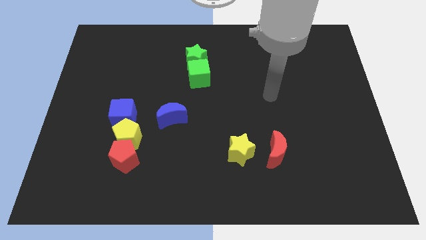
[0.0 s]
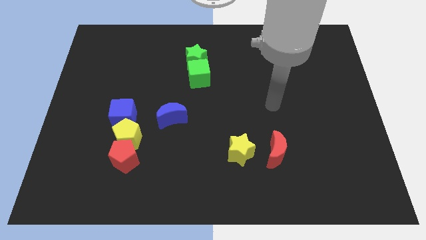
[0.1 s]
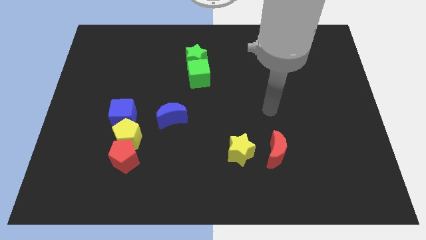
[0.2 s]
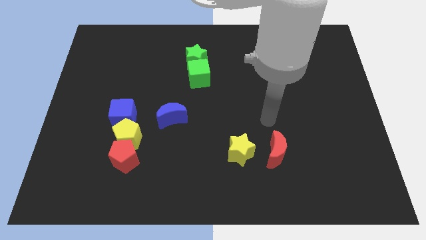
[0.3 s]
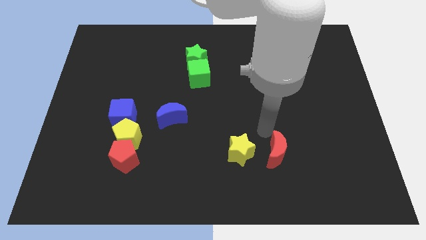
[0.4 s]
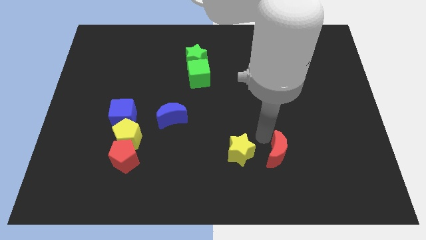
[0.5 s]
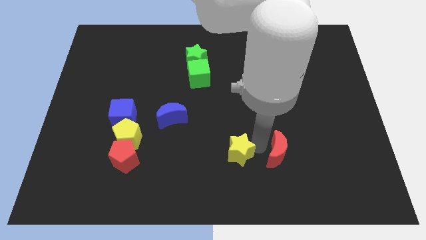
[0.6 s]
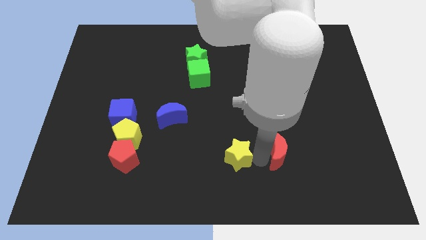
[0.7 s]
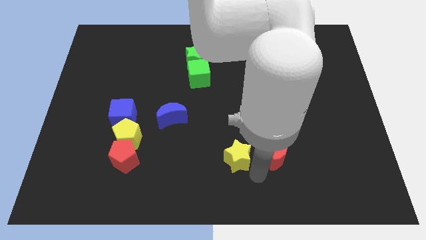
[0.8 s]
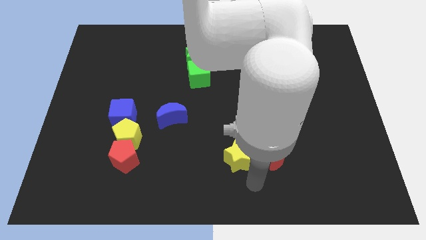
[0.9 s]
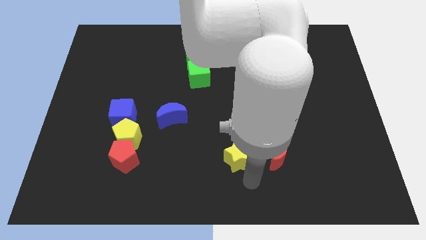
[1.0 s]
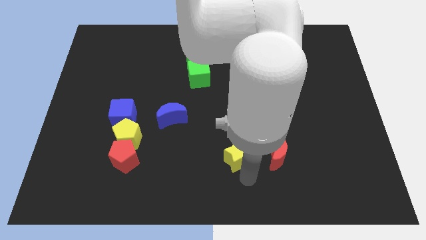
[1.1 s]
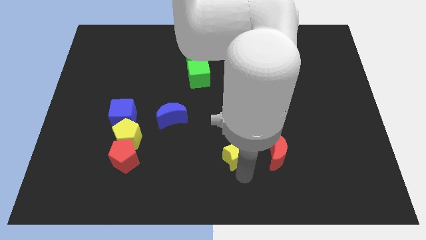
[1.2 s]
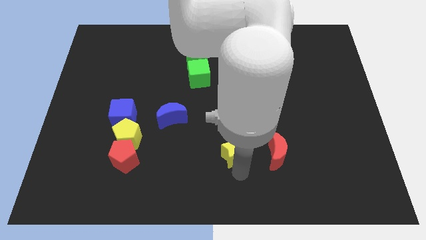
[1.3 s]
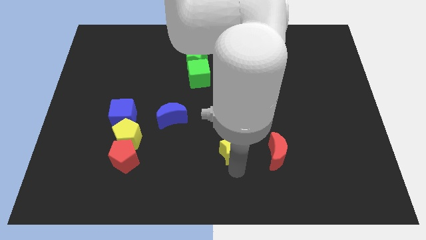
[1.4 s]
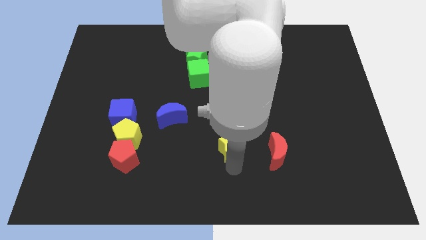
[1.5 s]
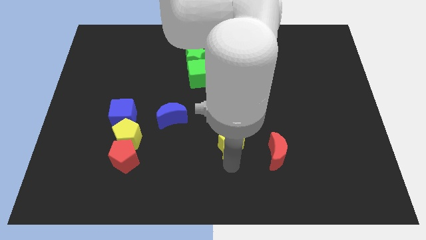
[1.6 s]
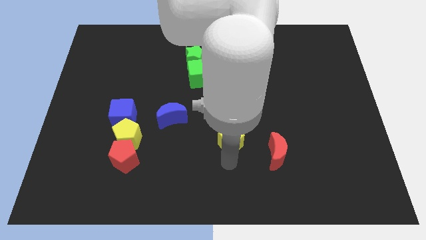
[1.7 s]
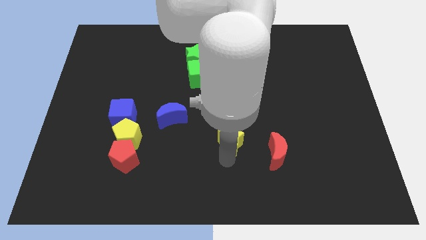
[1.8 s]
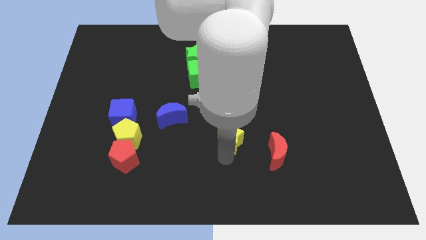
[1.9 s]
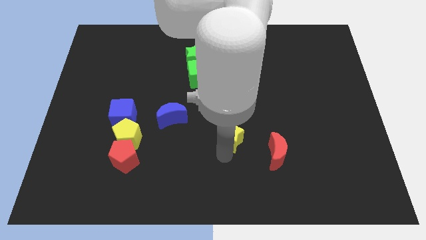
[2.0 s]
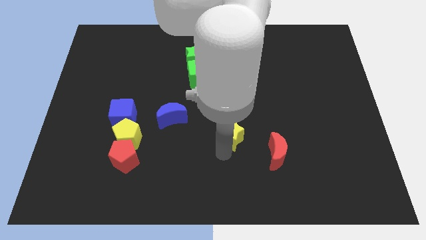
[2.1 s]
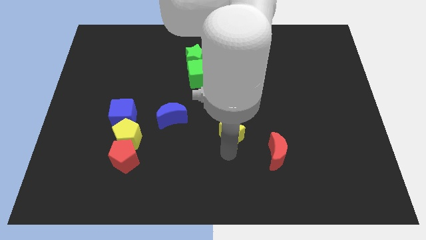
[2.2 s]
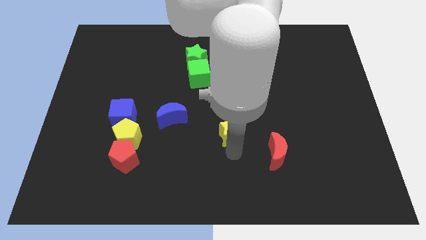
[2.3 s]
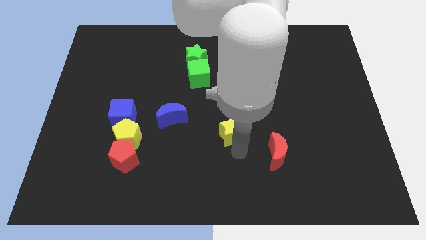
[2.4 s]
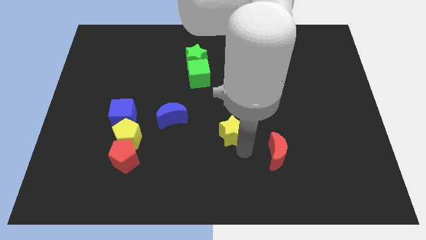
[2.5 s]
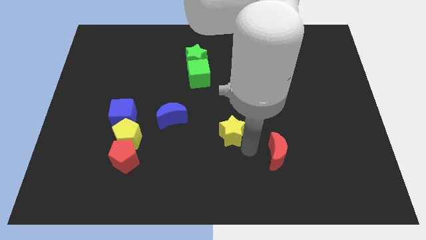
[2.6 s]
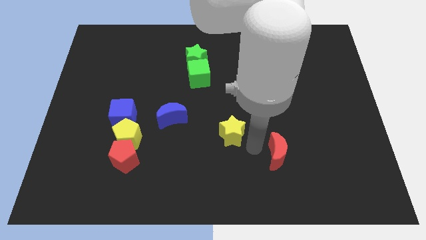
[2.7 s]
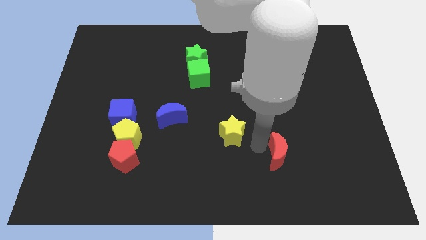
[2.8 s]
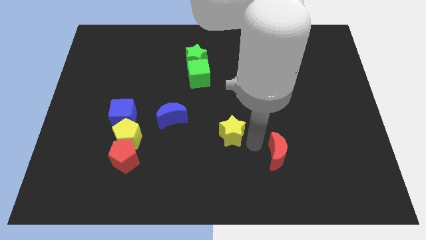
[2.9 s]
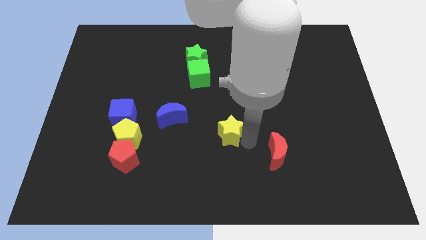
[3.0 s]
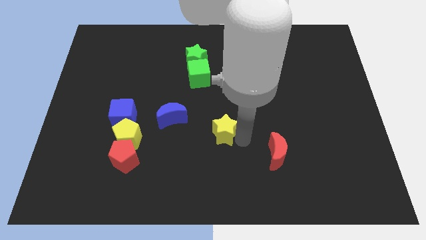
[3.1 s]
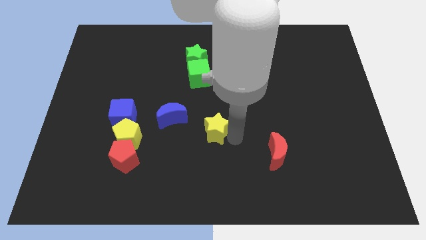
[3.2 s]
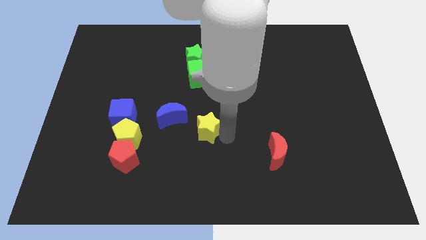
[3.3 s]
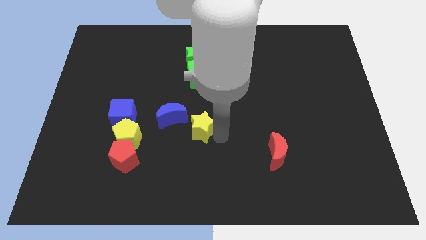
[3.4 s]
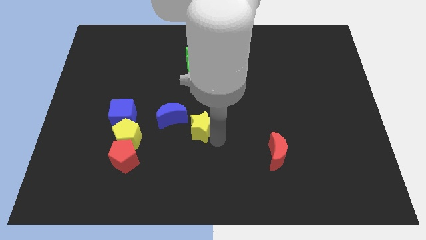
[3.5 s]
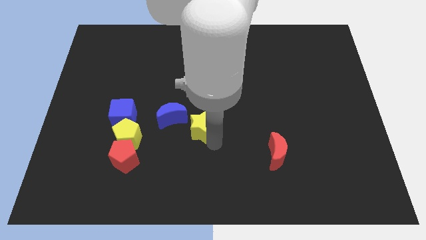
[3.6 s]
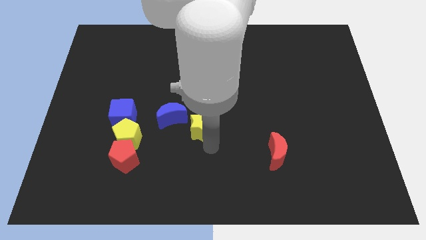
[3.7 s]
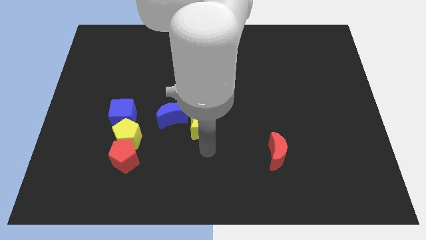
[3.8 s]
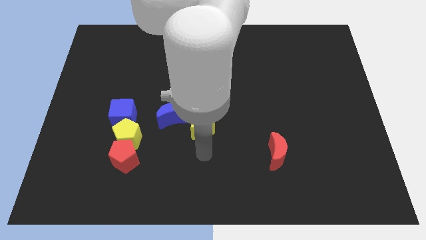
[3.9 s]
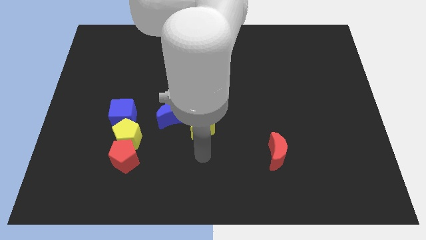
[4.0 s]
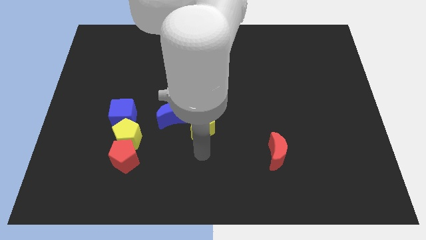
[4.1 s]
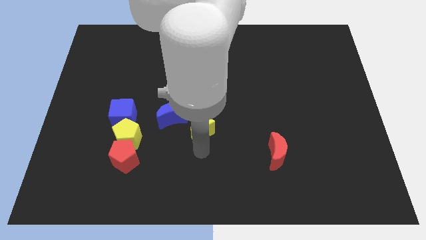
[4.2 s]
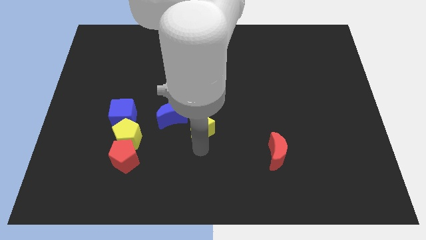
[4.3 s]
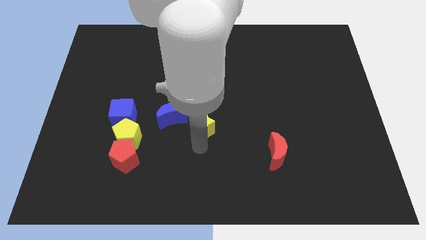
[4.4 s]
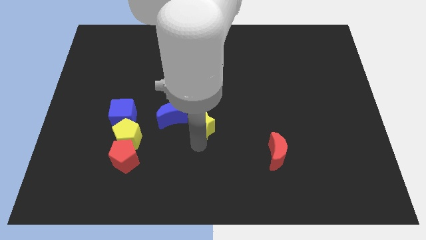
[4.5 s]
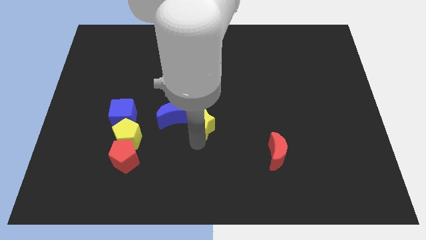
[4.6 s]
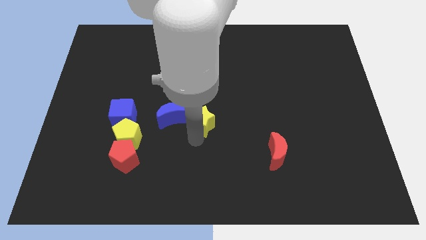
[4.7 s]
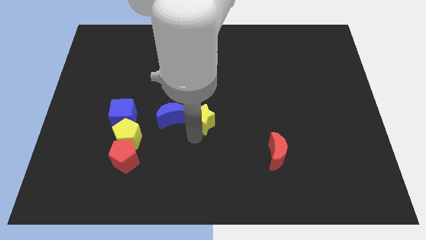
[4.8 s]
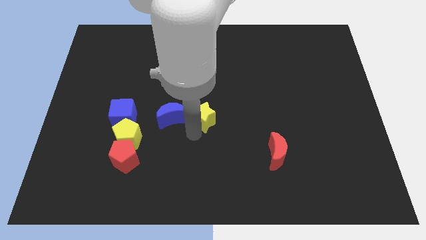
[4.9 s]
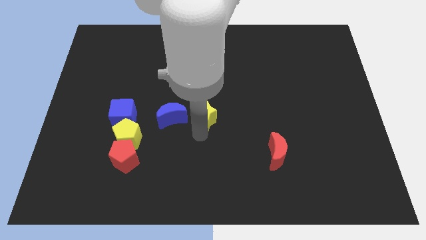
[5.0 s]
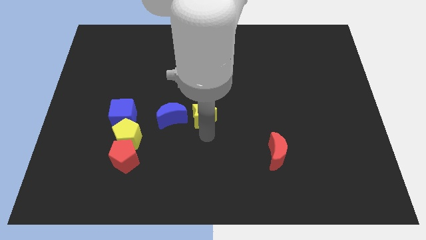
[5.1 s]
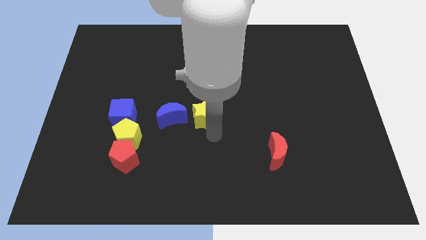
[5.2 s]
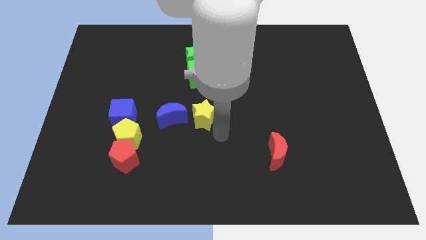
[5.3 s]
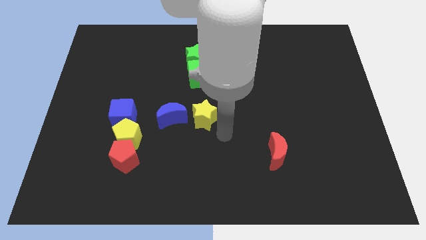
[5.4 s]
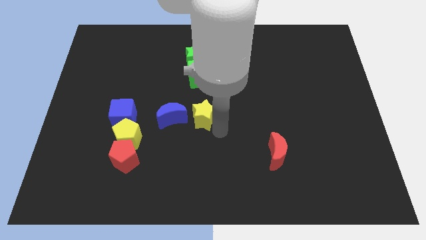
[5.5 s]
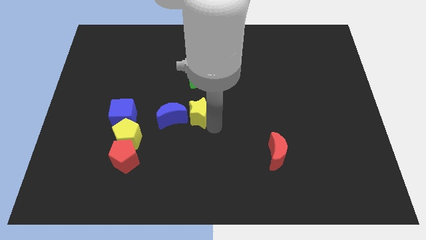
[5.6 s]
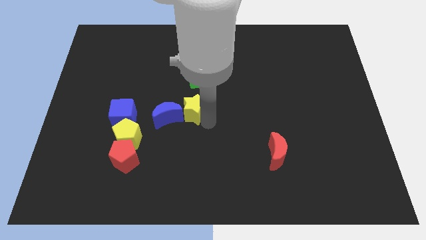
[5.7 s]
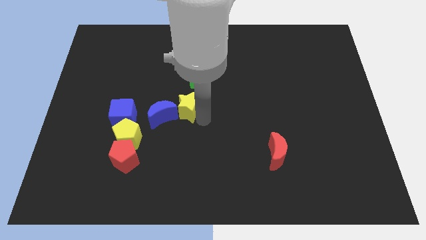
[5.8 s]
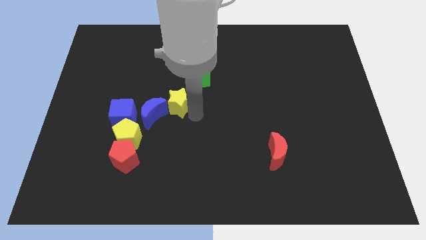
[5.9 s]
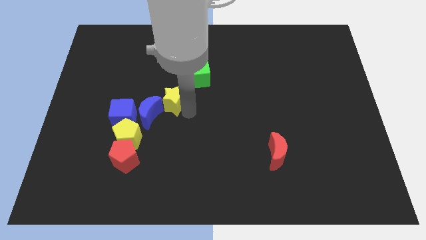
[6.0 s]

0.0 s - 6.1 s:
slide the yellow star upwards and then to the left

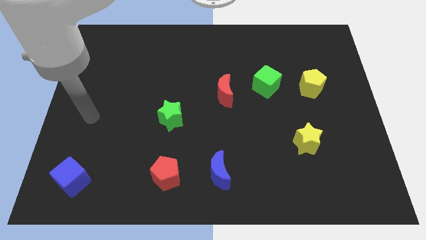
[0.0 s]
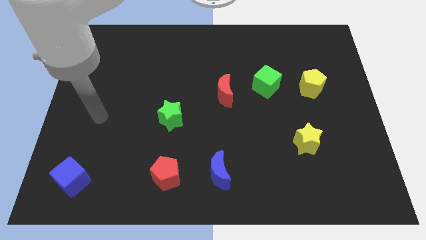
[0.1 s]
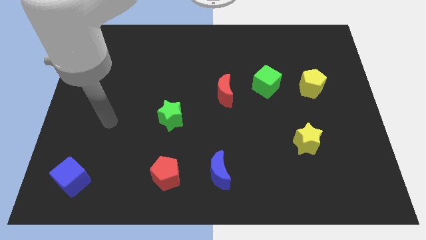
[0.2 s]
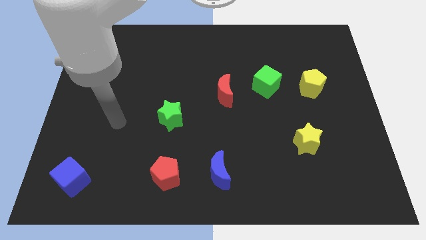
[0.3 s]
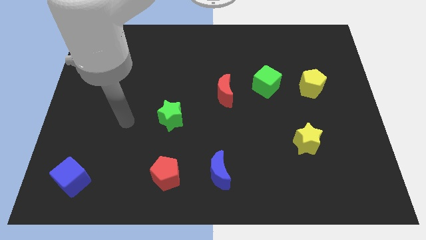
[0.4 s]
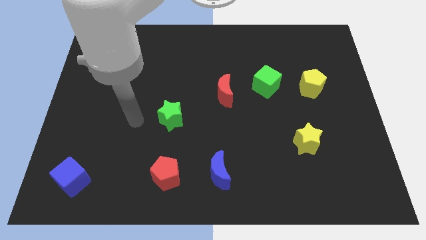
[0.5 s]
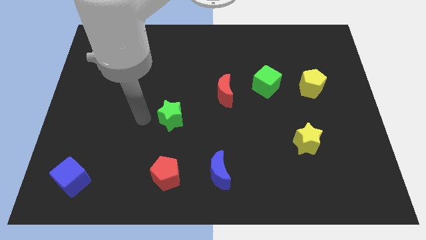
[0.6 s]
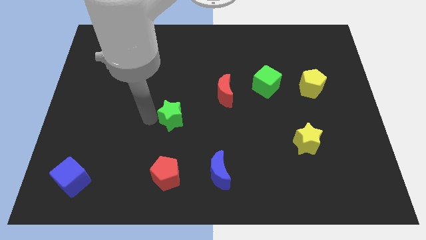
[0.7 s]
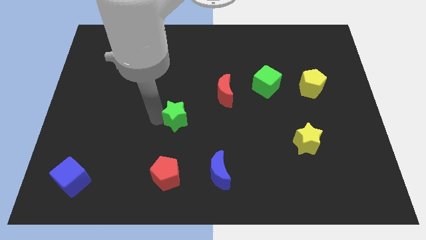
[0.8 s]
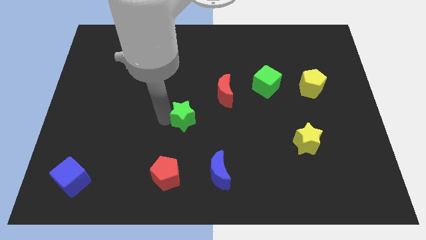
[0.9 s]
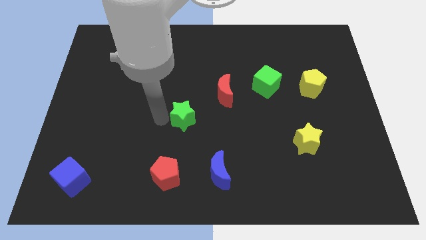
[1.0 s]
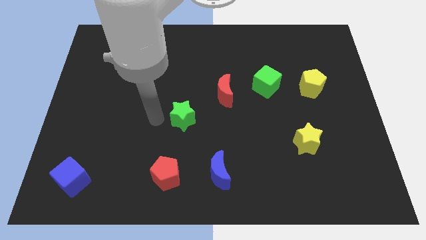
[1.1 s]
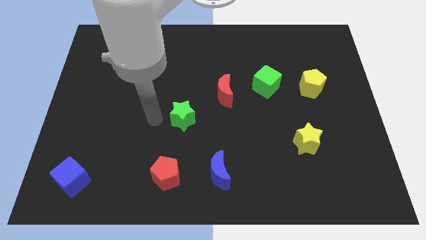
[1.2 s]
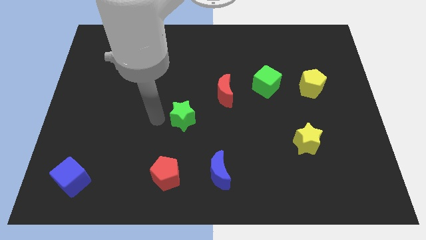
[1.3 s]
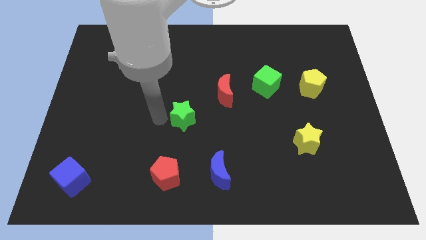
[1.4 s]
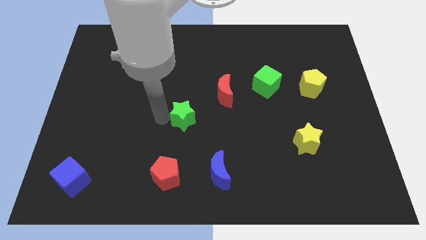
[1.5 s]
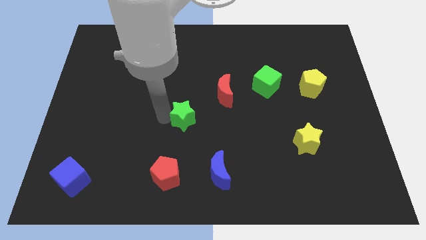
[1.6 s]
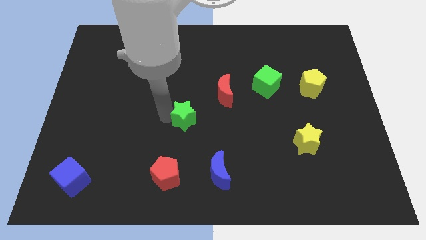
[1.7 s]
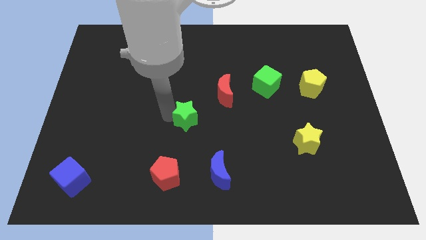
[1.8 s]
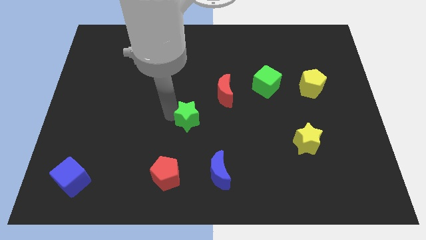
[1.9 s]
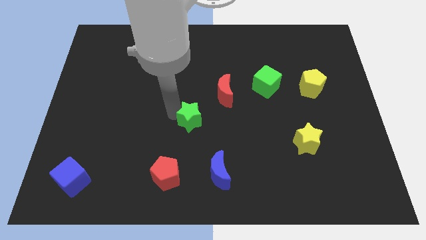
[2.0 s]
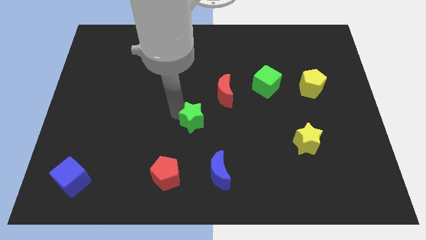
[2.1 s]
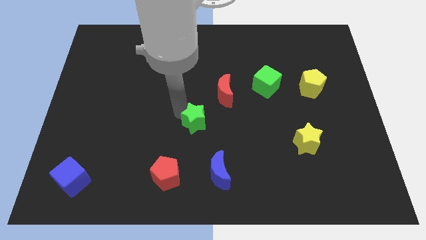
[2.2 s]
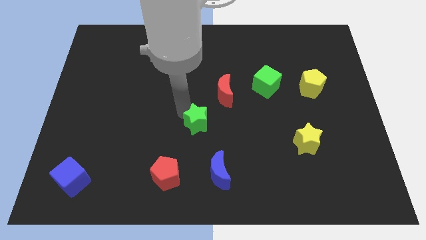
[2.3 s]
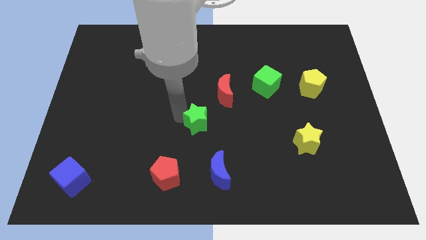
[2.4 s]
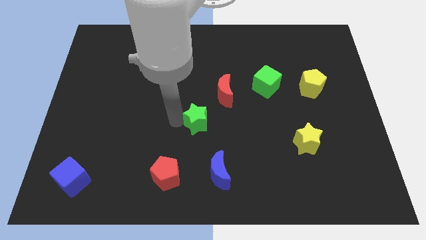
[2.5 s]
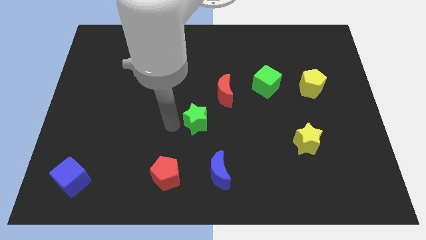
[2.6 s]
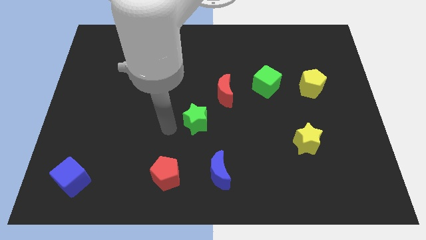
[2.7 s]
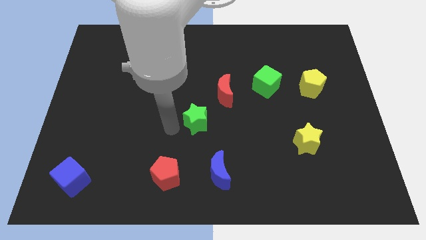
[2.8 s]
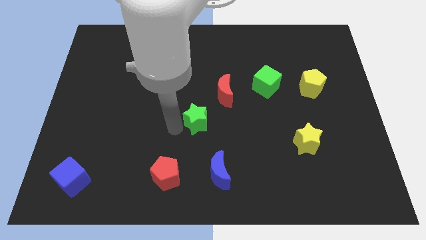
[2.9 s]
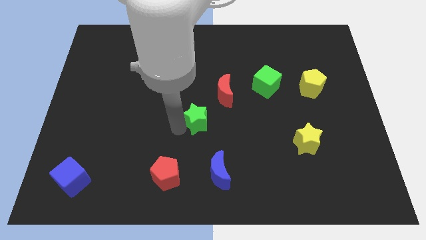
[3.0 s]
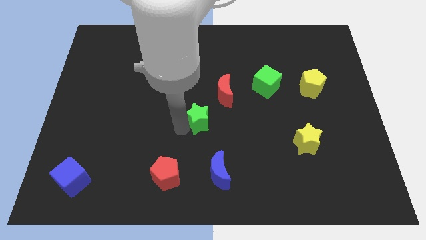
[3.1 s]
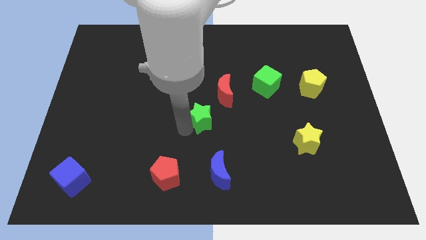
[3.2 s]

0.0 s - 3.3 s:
slightly push the green star to the right
